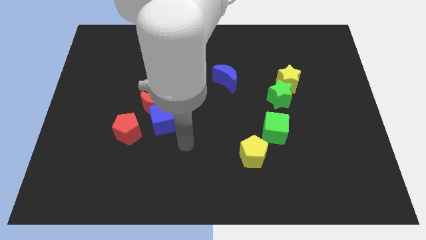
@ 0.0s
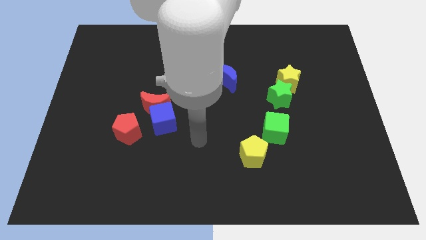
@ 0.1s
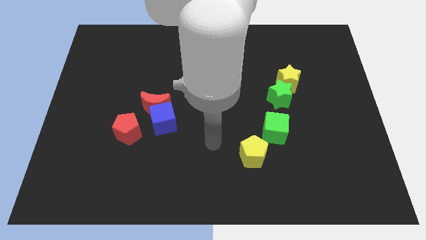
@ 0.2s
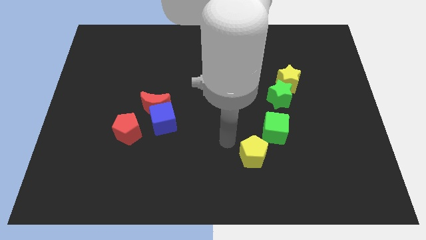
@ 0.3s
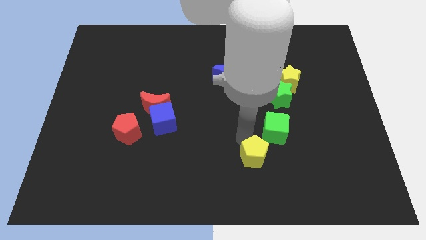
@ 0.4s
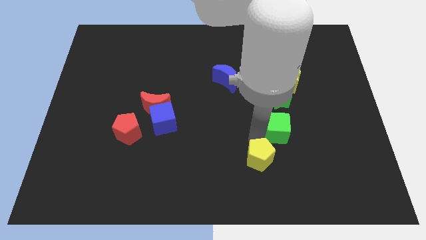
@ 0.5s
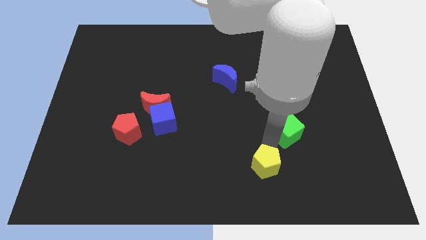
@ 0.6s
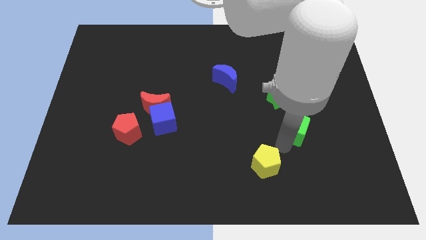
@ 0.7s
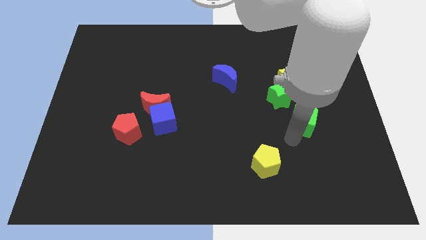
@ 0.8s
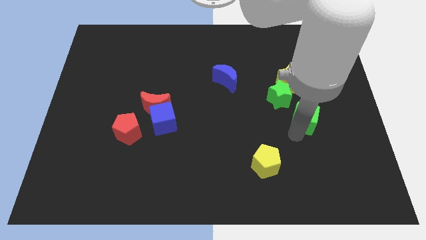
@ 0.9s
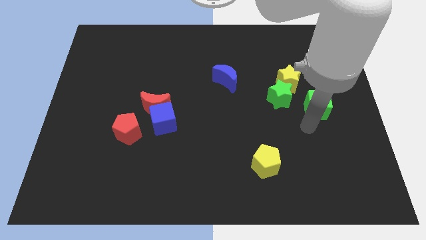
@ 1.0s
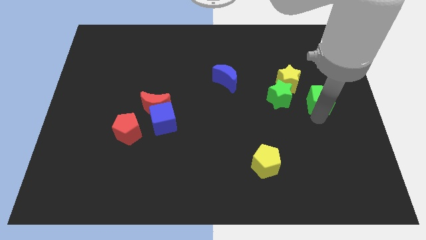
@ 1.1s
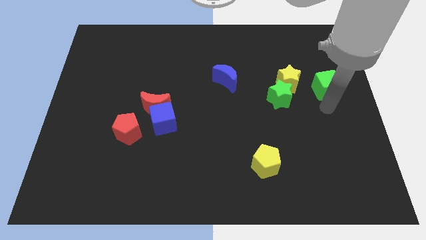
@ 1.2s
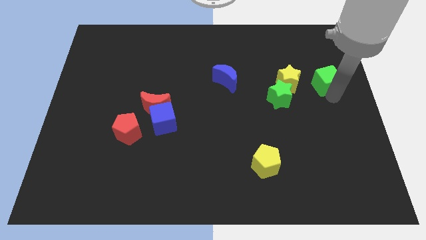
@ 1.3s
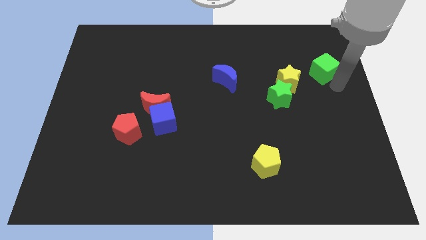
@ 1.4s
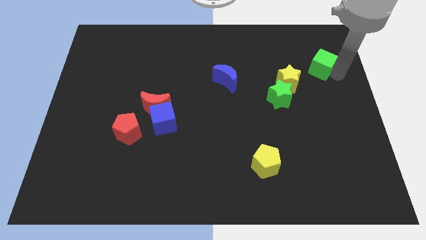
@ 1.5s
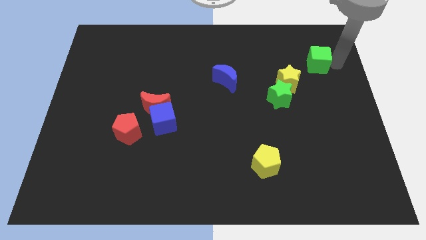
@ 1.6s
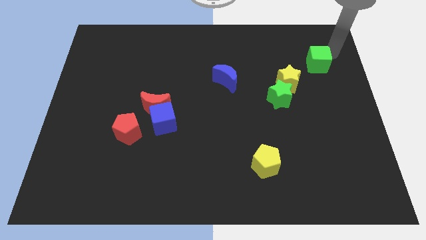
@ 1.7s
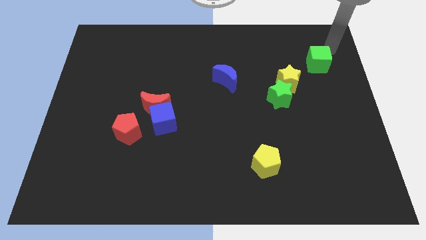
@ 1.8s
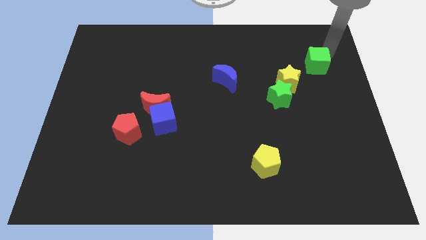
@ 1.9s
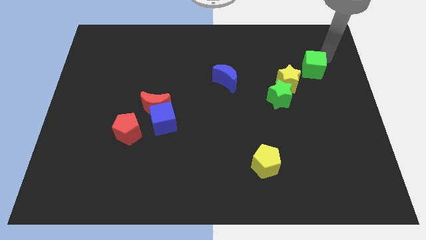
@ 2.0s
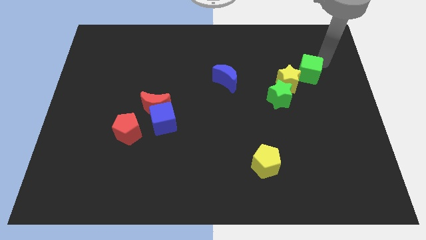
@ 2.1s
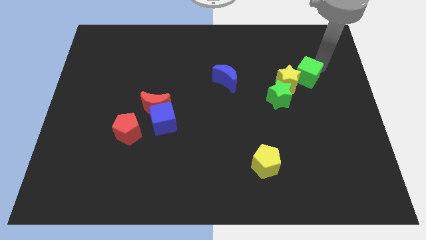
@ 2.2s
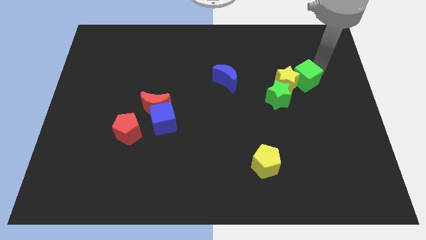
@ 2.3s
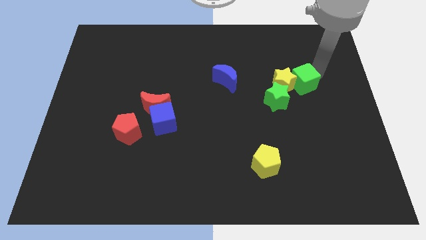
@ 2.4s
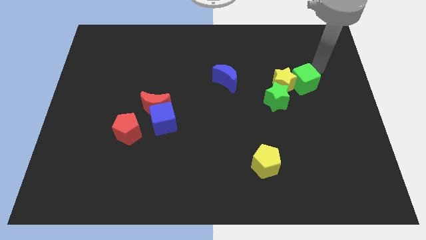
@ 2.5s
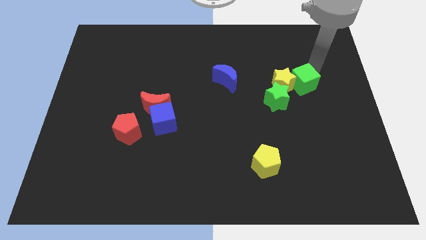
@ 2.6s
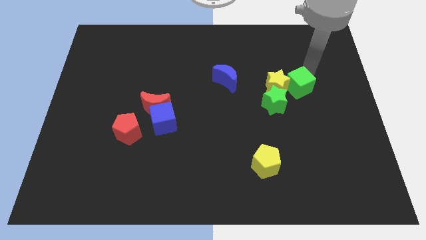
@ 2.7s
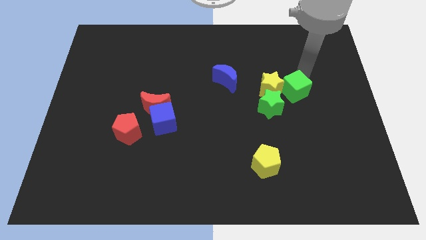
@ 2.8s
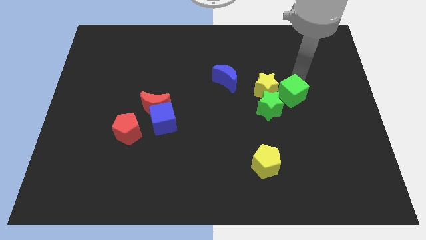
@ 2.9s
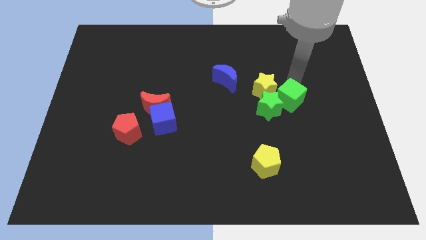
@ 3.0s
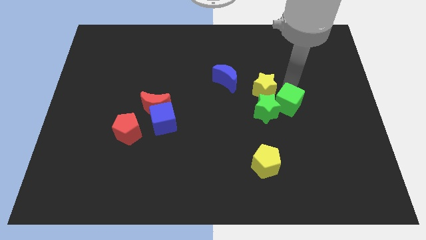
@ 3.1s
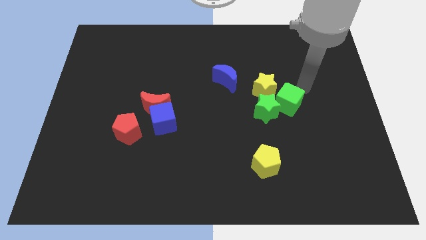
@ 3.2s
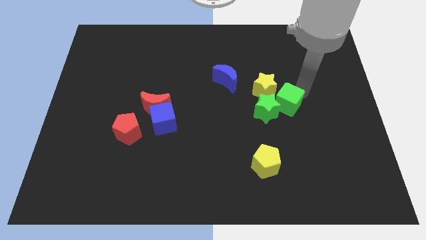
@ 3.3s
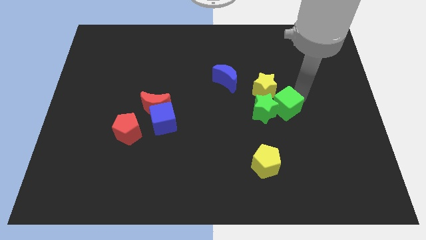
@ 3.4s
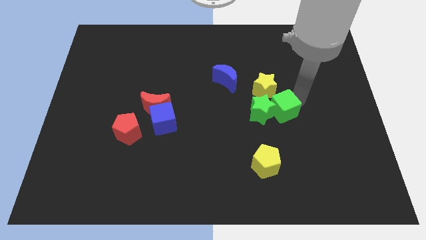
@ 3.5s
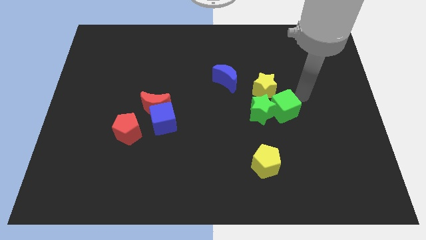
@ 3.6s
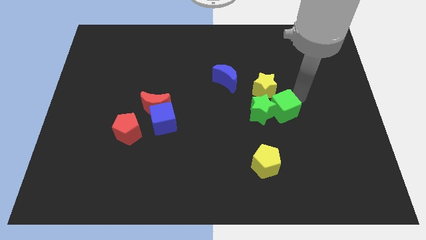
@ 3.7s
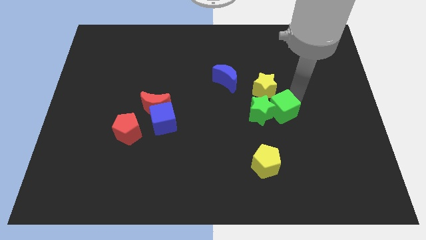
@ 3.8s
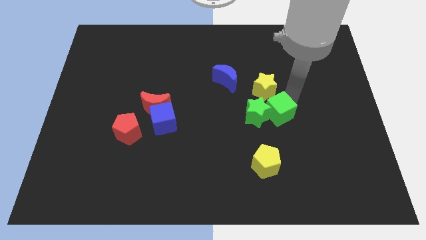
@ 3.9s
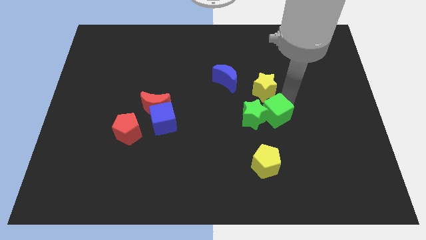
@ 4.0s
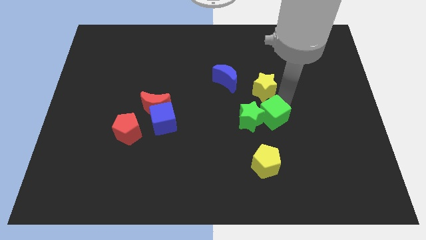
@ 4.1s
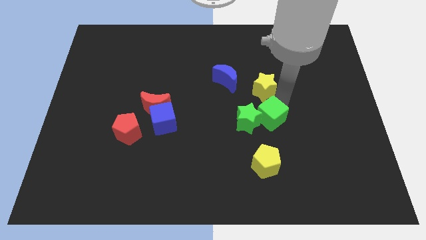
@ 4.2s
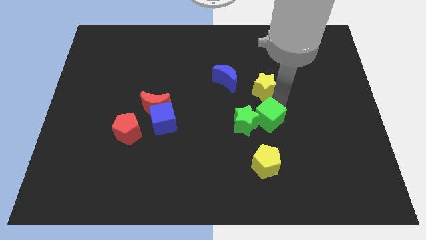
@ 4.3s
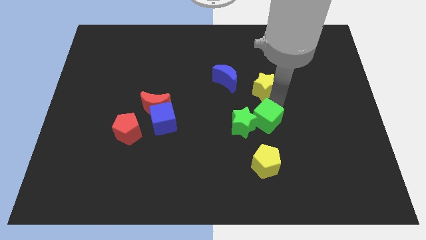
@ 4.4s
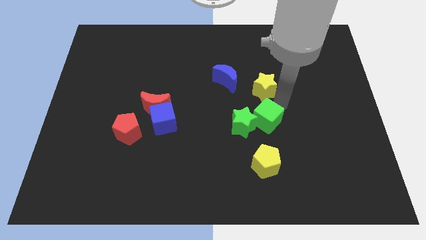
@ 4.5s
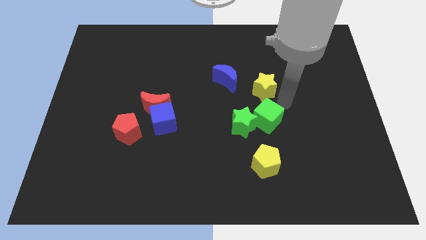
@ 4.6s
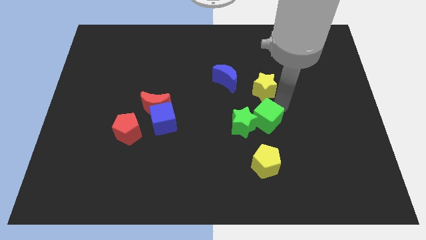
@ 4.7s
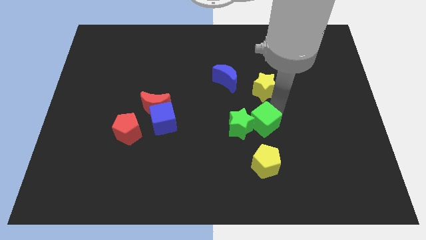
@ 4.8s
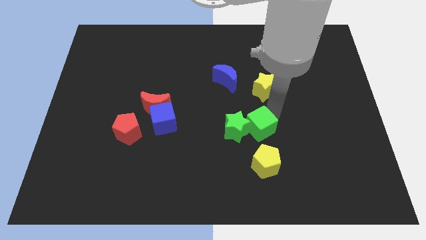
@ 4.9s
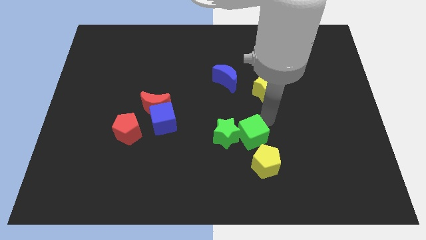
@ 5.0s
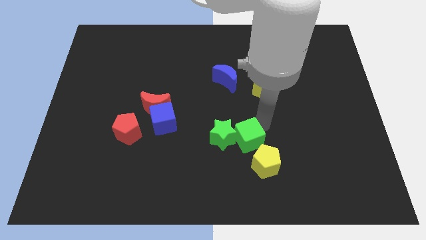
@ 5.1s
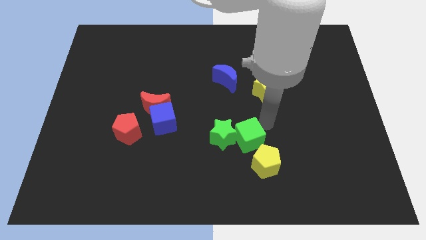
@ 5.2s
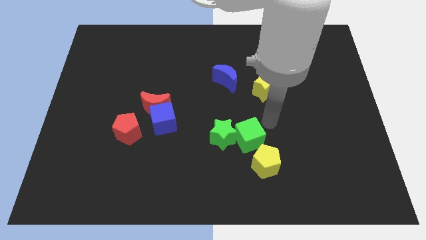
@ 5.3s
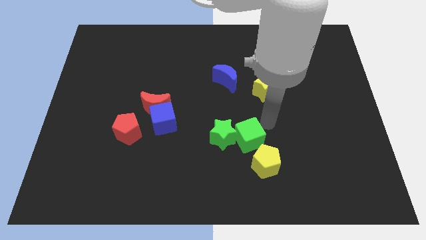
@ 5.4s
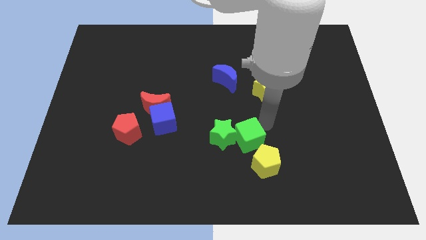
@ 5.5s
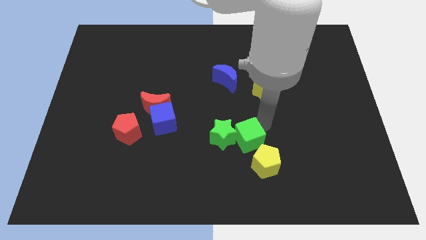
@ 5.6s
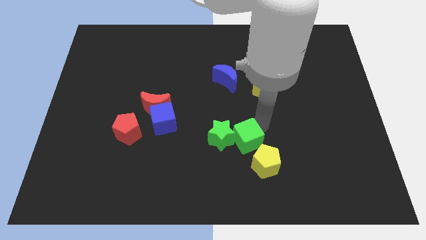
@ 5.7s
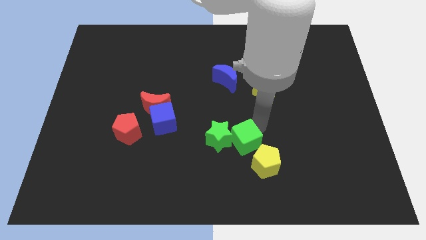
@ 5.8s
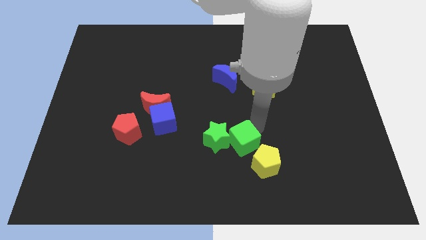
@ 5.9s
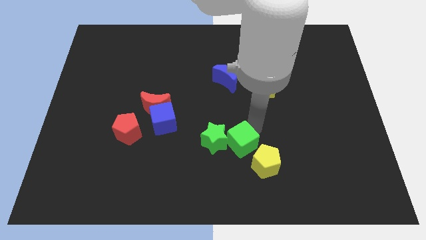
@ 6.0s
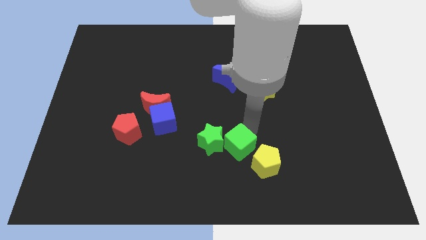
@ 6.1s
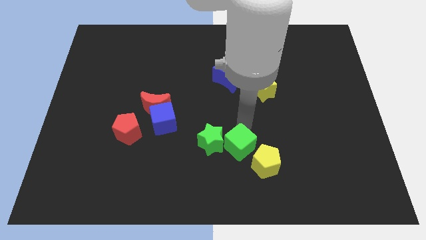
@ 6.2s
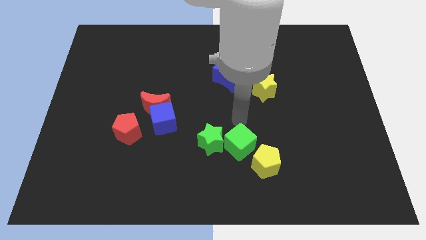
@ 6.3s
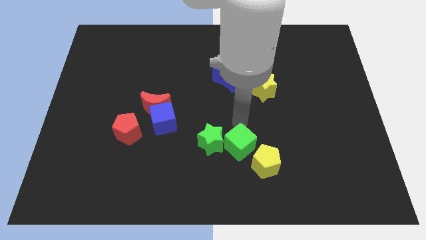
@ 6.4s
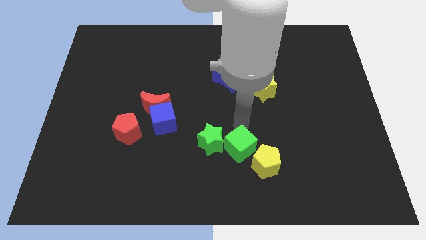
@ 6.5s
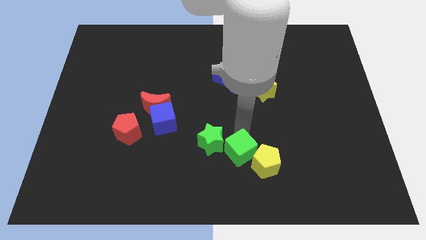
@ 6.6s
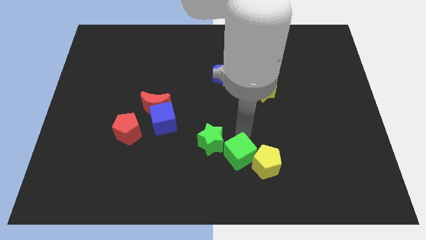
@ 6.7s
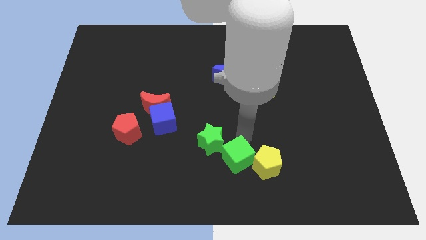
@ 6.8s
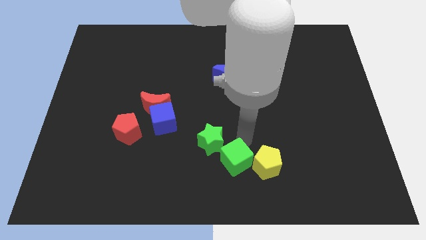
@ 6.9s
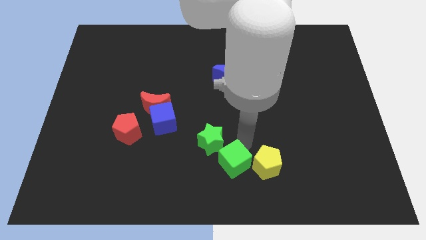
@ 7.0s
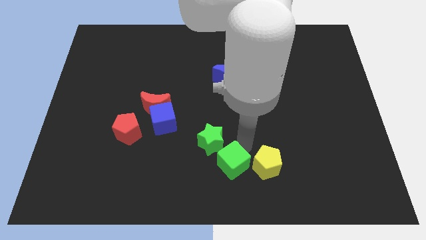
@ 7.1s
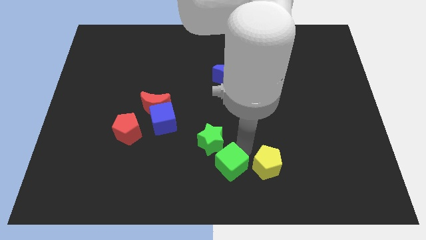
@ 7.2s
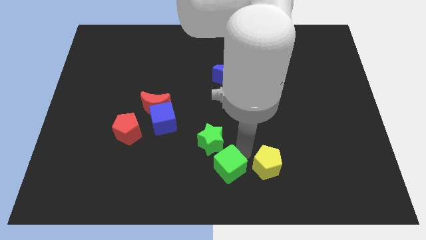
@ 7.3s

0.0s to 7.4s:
put the green cube to the bottom left side of the yellow pentagon

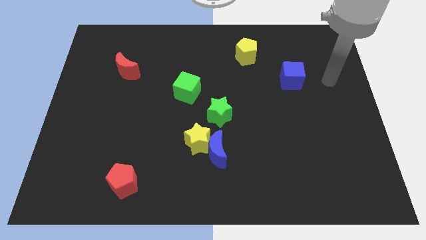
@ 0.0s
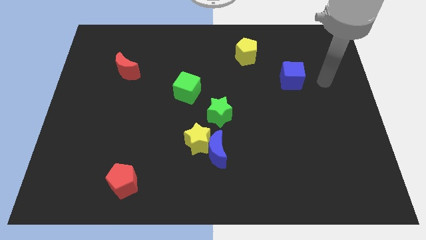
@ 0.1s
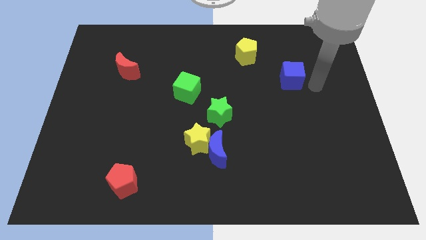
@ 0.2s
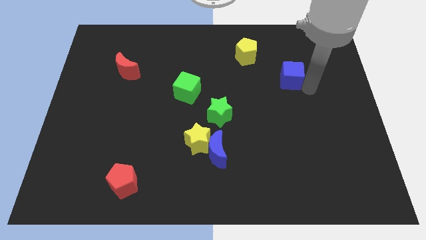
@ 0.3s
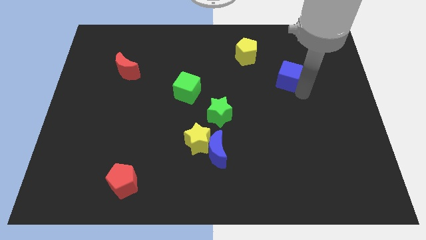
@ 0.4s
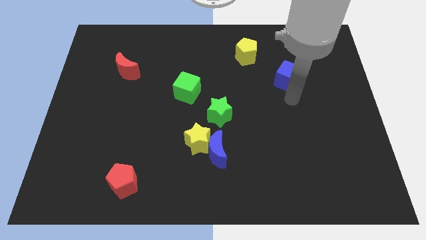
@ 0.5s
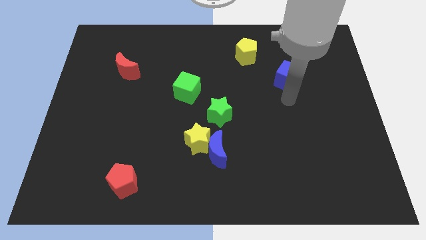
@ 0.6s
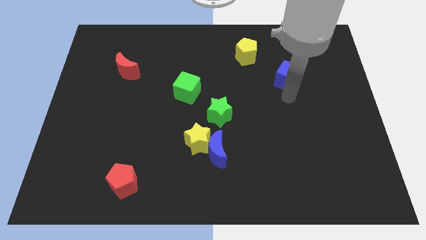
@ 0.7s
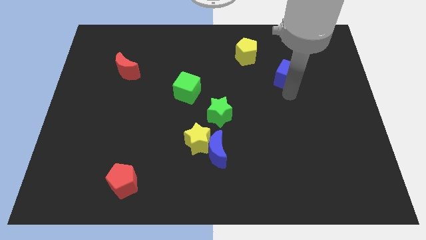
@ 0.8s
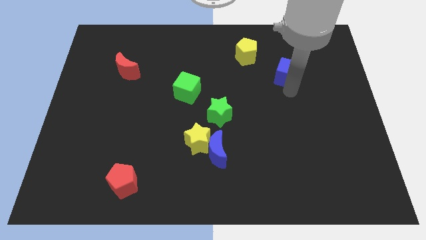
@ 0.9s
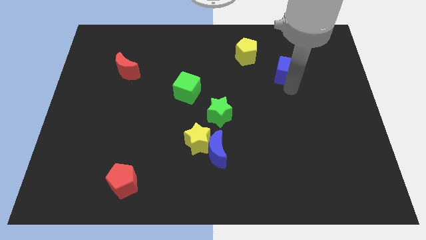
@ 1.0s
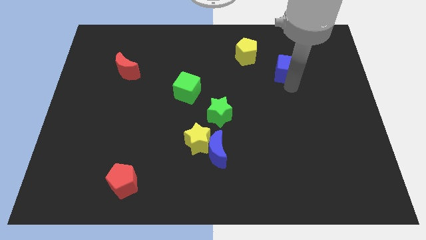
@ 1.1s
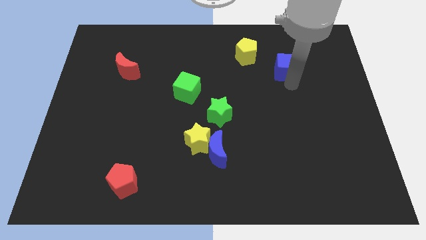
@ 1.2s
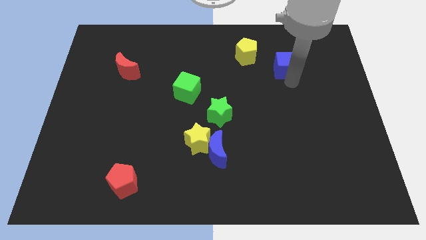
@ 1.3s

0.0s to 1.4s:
move the blue cube to the right side of the yellow pentagon
